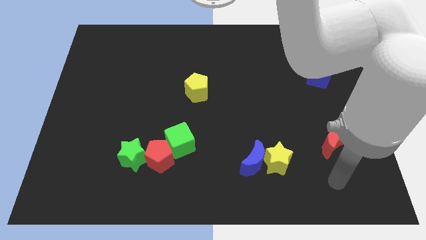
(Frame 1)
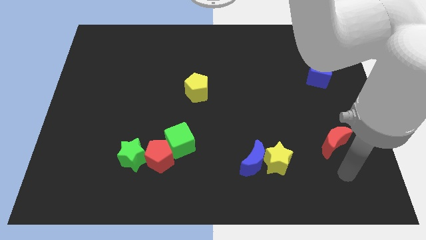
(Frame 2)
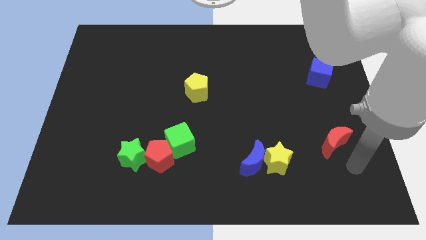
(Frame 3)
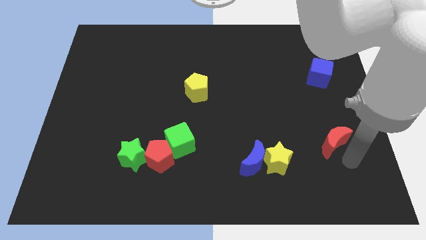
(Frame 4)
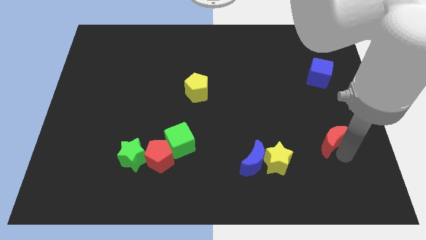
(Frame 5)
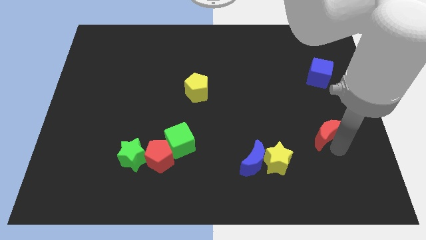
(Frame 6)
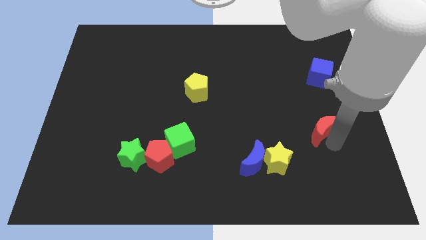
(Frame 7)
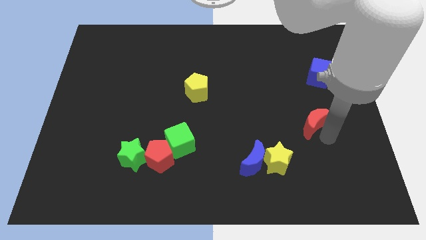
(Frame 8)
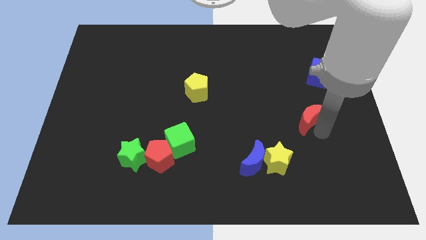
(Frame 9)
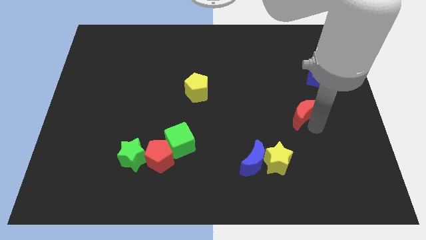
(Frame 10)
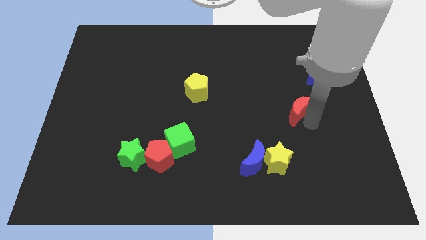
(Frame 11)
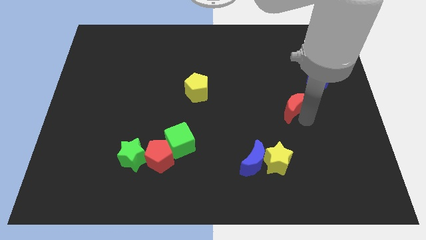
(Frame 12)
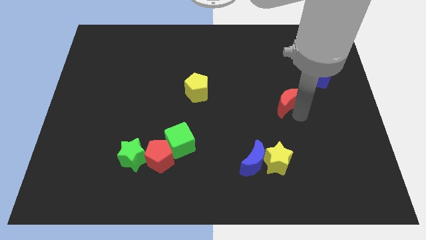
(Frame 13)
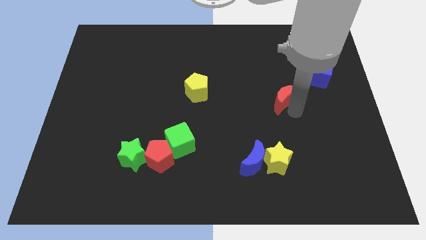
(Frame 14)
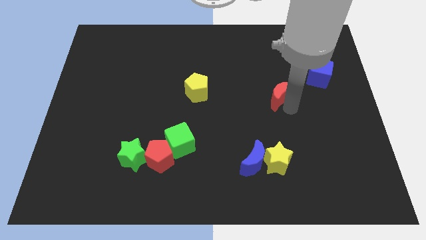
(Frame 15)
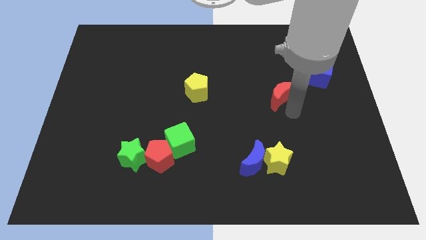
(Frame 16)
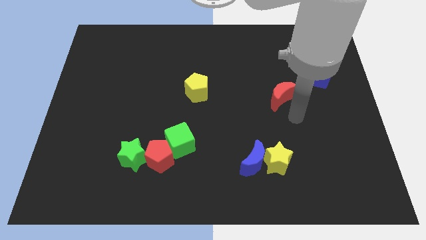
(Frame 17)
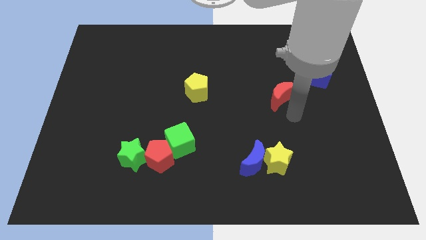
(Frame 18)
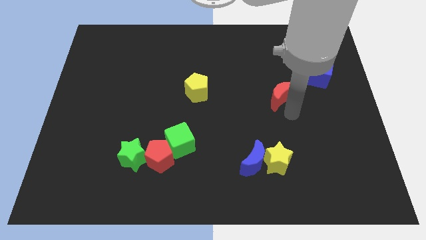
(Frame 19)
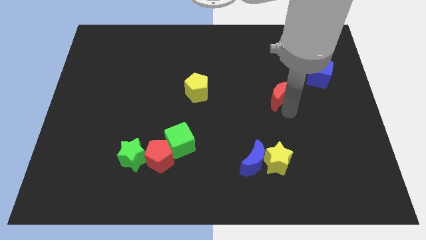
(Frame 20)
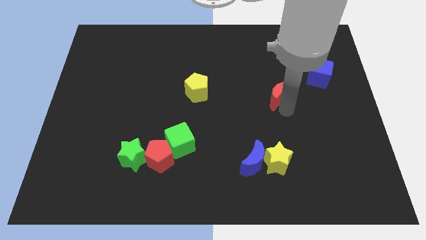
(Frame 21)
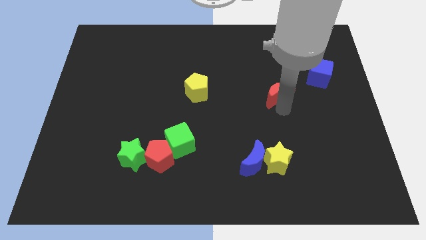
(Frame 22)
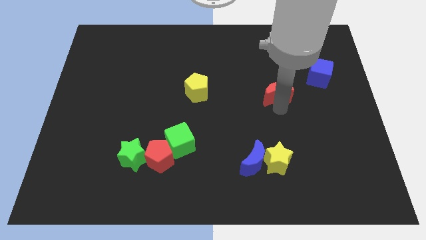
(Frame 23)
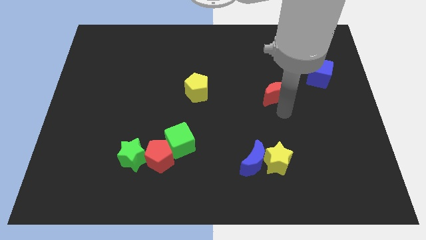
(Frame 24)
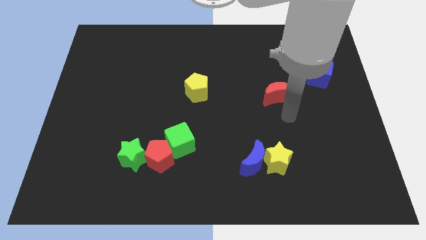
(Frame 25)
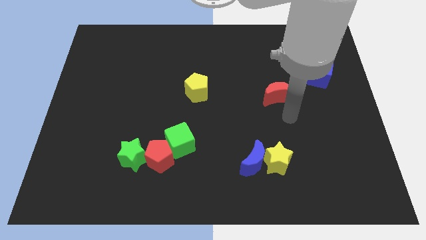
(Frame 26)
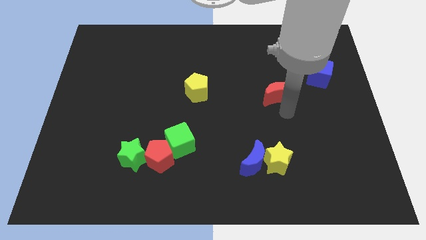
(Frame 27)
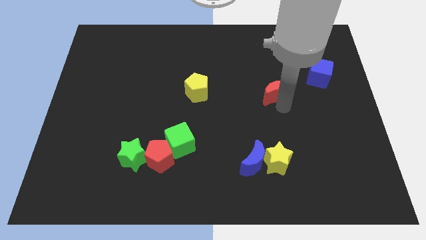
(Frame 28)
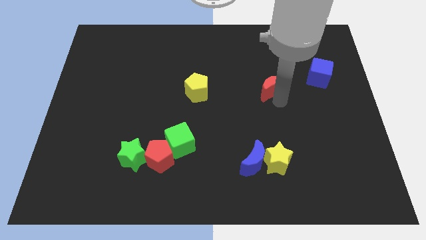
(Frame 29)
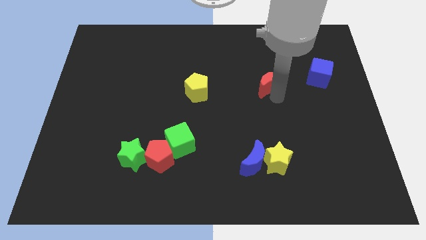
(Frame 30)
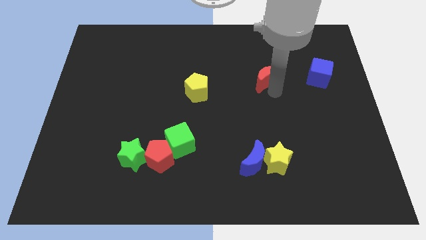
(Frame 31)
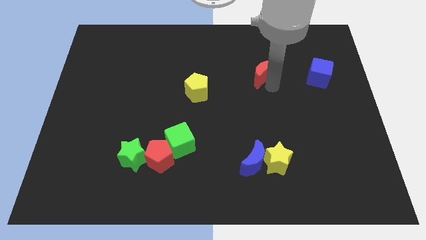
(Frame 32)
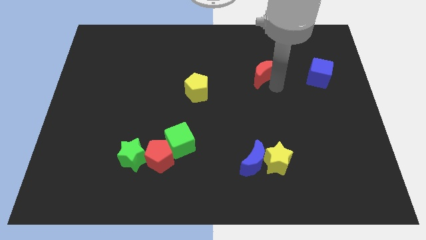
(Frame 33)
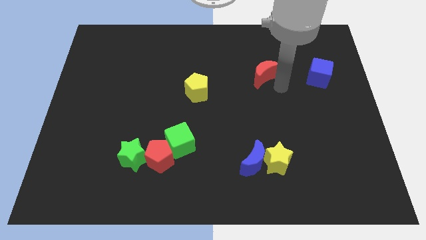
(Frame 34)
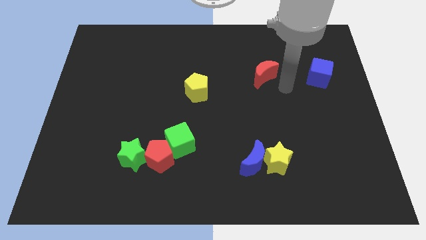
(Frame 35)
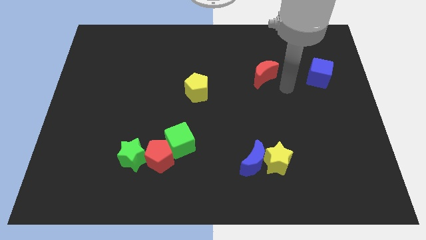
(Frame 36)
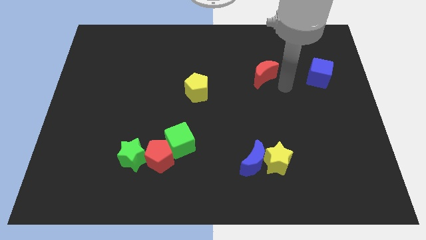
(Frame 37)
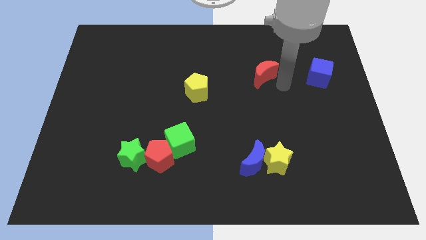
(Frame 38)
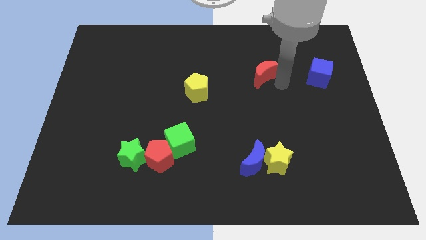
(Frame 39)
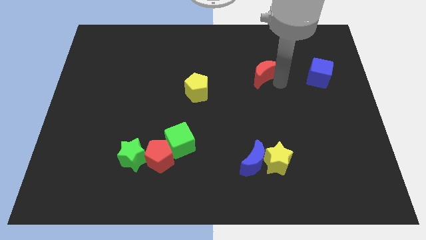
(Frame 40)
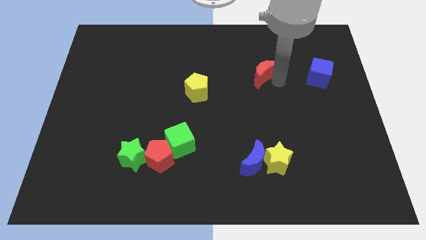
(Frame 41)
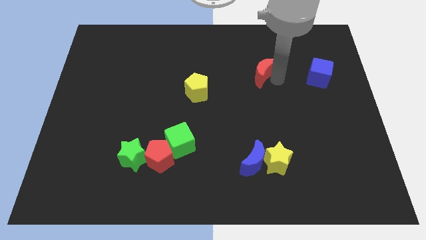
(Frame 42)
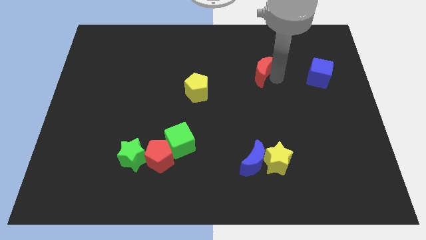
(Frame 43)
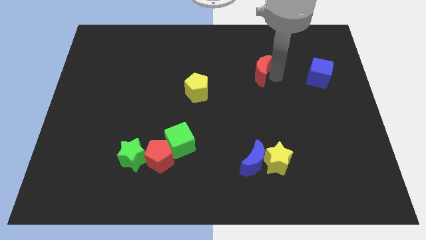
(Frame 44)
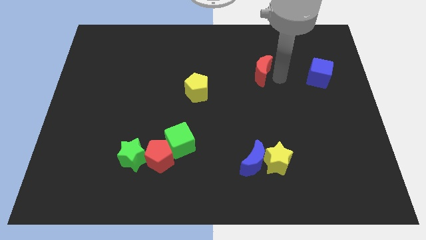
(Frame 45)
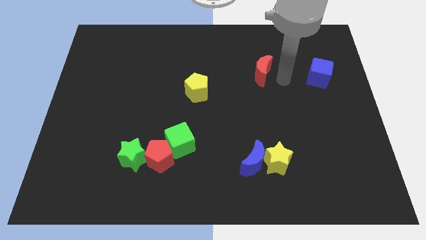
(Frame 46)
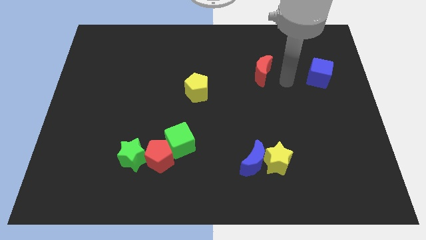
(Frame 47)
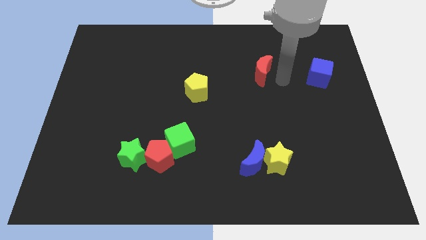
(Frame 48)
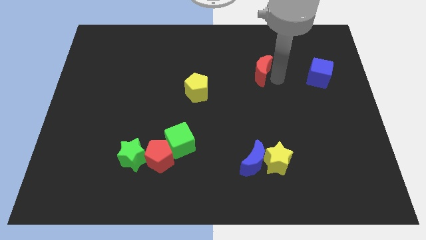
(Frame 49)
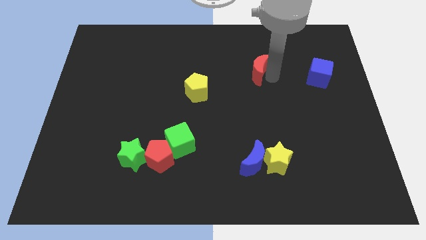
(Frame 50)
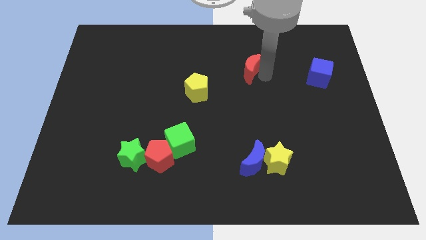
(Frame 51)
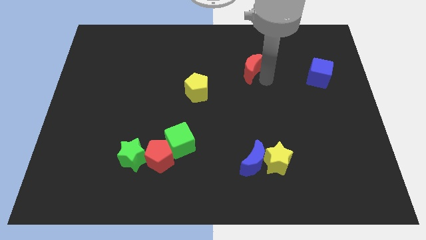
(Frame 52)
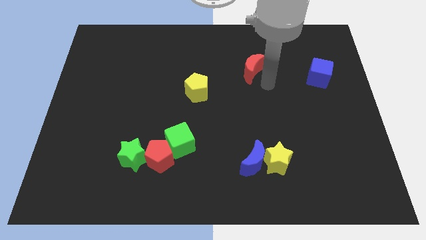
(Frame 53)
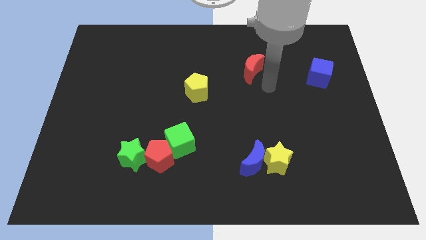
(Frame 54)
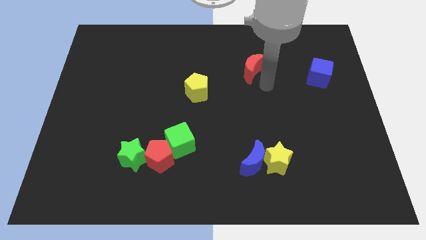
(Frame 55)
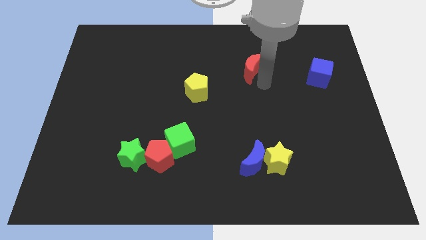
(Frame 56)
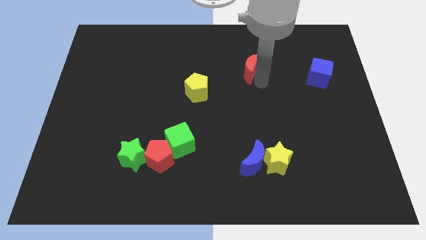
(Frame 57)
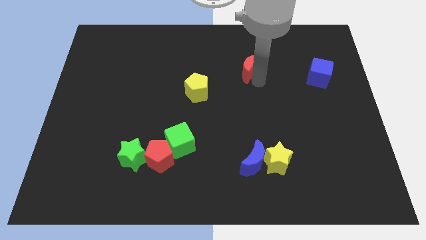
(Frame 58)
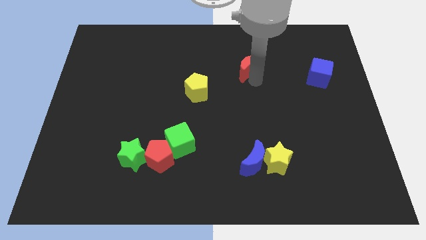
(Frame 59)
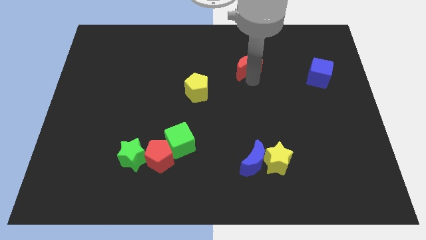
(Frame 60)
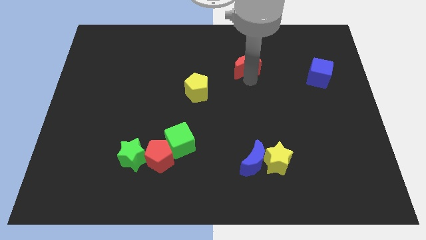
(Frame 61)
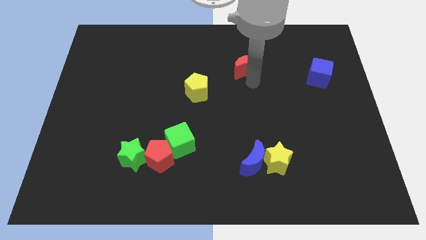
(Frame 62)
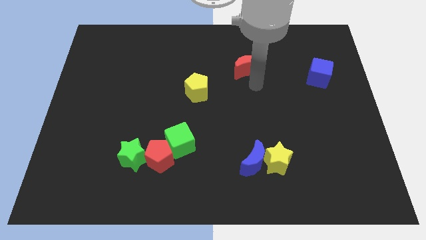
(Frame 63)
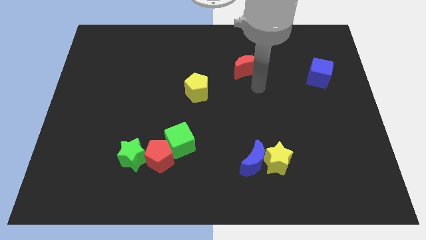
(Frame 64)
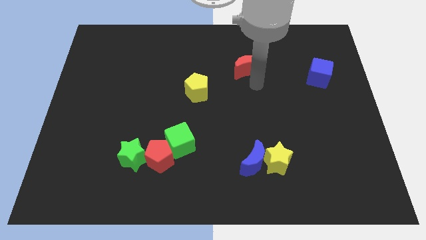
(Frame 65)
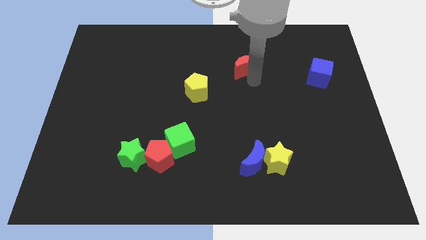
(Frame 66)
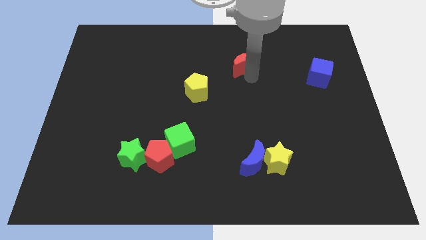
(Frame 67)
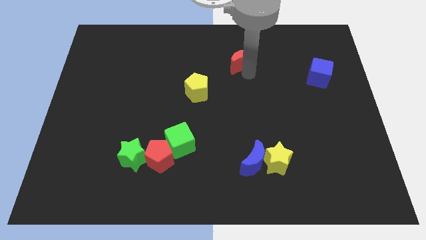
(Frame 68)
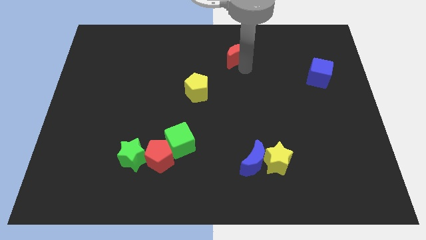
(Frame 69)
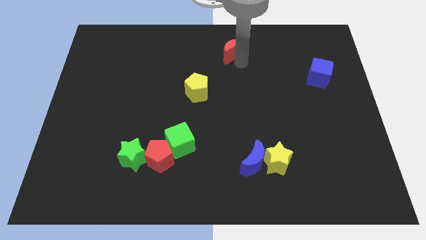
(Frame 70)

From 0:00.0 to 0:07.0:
push the red moon to the top side
